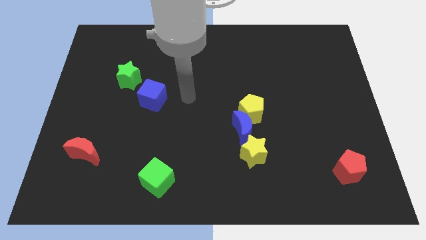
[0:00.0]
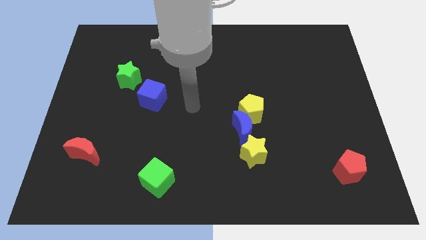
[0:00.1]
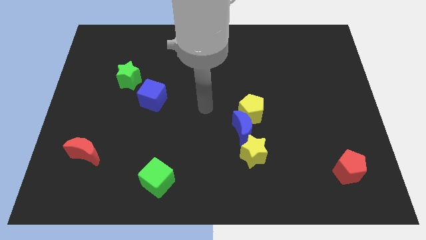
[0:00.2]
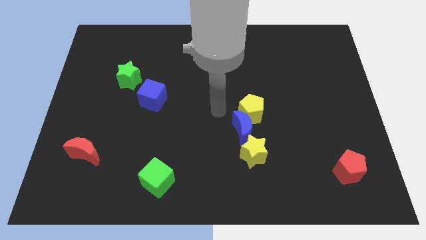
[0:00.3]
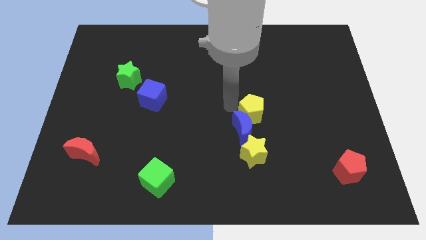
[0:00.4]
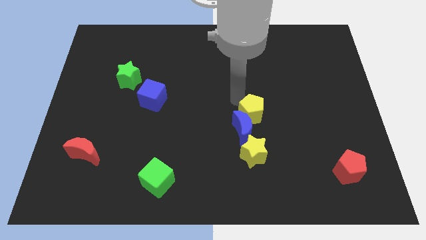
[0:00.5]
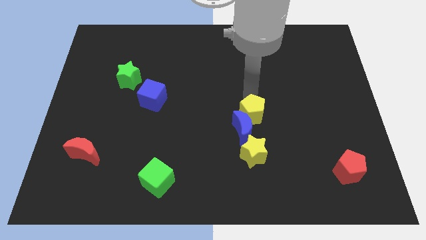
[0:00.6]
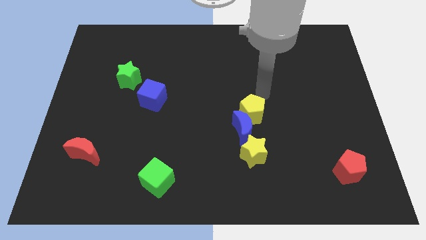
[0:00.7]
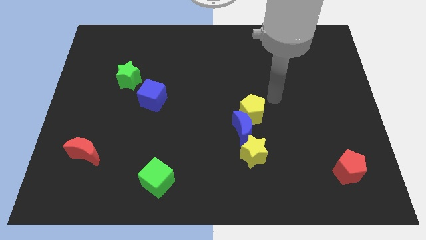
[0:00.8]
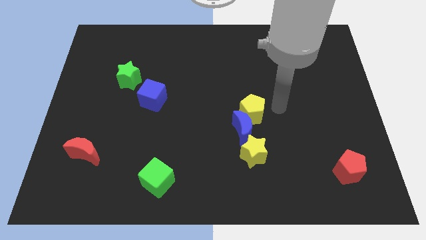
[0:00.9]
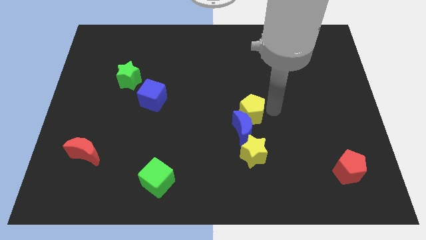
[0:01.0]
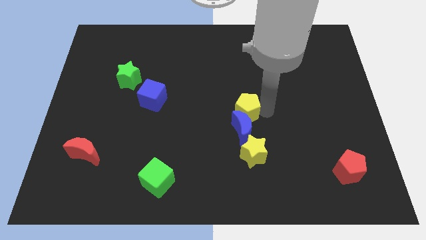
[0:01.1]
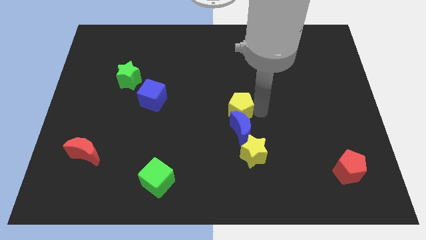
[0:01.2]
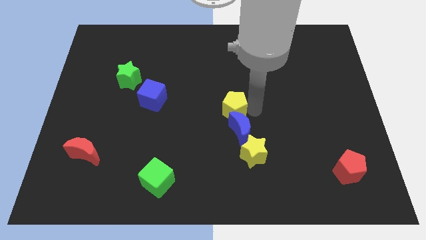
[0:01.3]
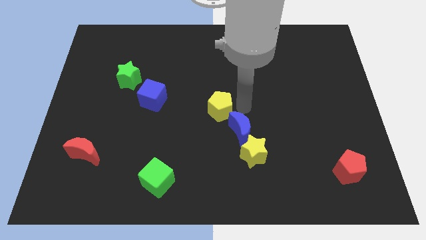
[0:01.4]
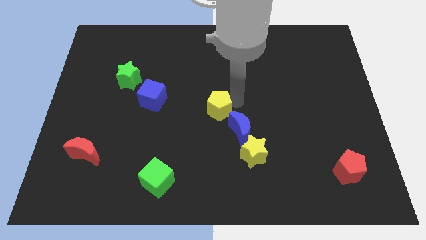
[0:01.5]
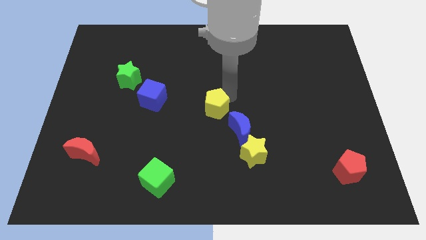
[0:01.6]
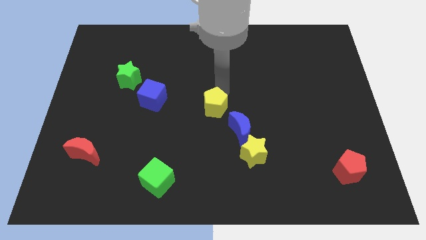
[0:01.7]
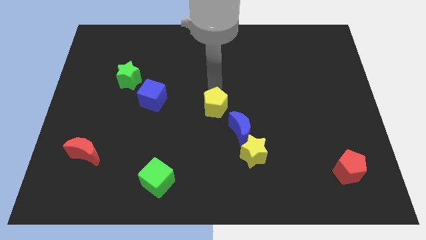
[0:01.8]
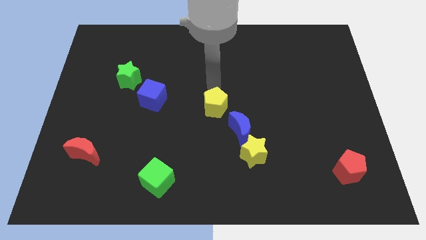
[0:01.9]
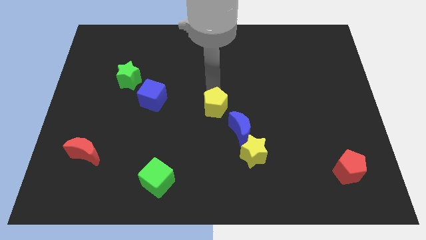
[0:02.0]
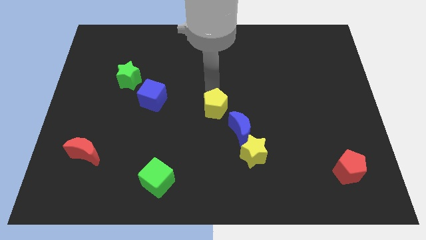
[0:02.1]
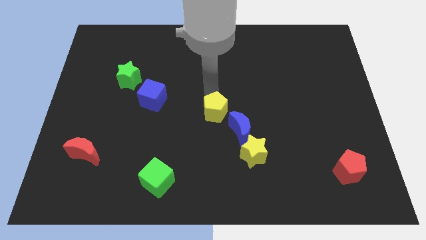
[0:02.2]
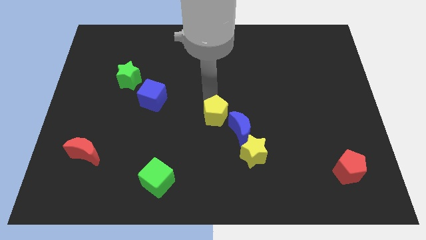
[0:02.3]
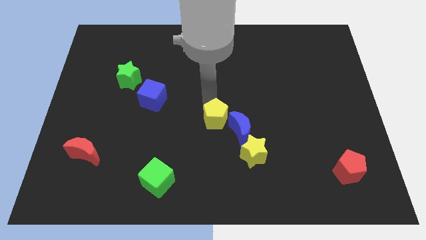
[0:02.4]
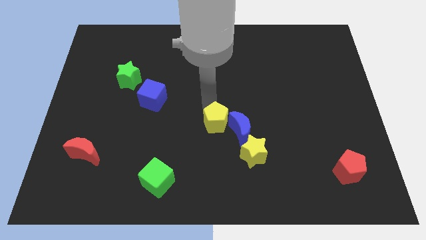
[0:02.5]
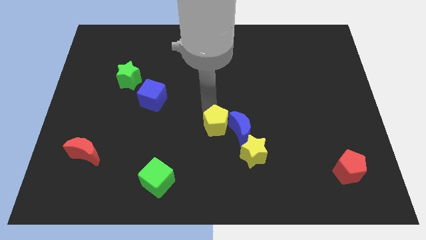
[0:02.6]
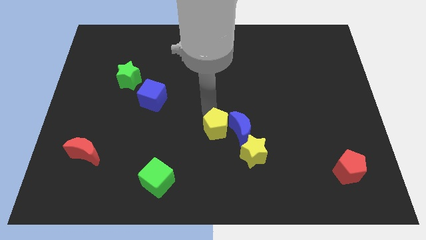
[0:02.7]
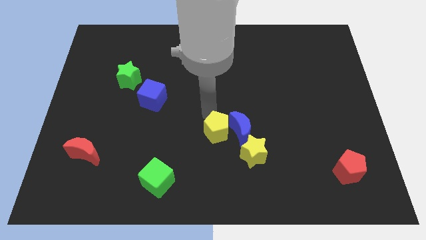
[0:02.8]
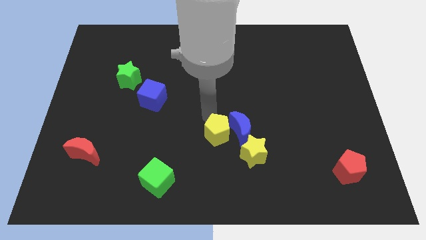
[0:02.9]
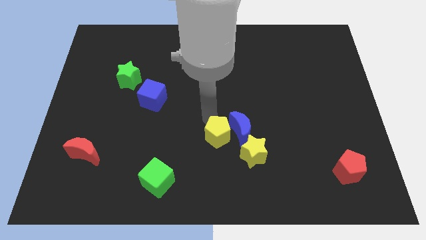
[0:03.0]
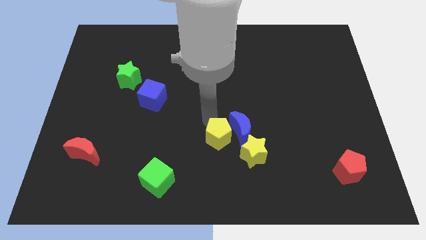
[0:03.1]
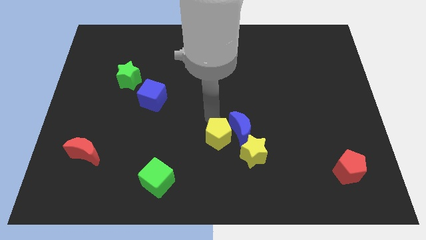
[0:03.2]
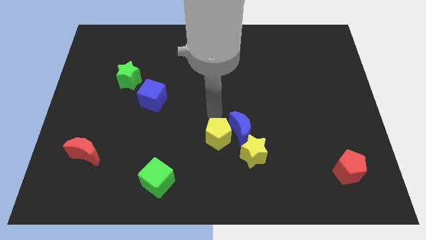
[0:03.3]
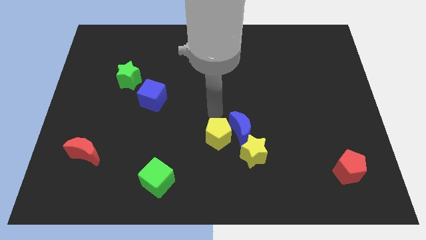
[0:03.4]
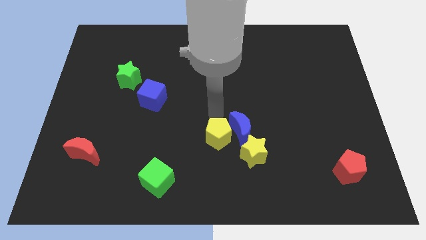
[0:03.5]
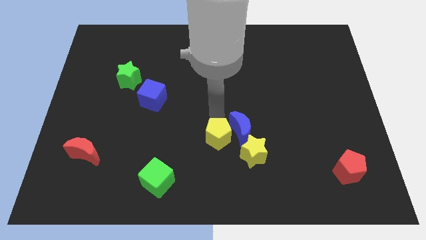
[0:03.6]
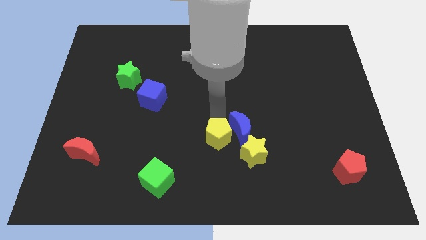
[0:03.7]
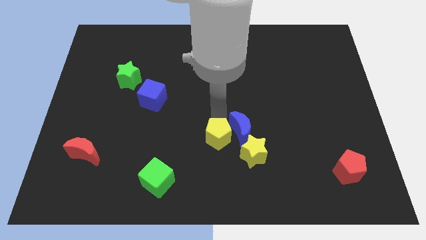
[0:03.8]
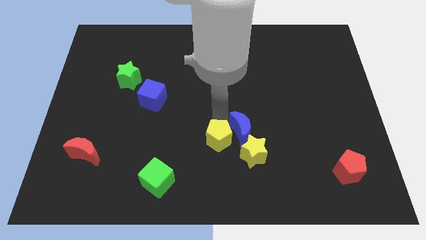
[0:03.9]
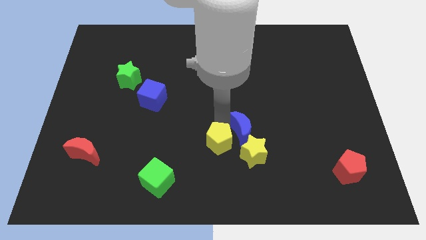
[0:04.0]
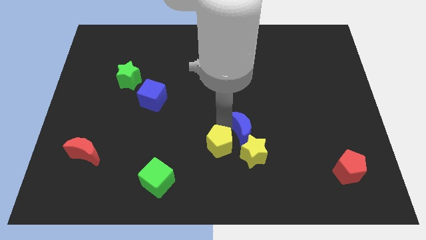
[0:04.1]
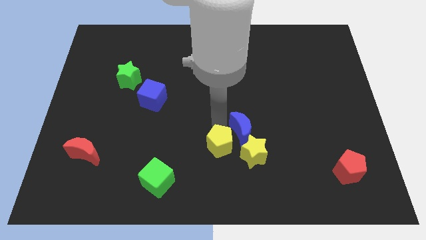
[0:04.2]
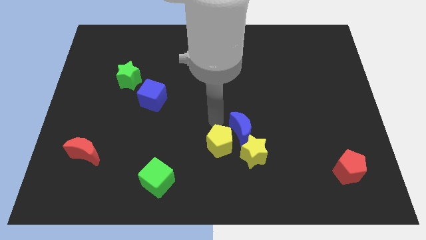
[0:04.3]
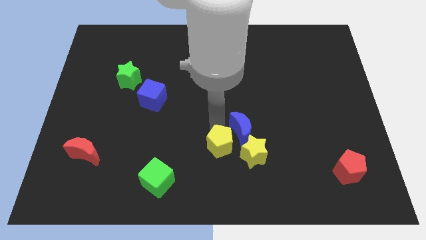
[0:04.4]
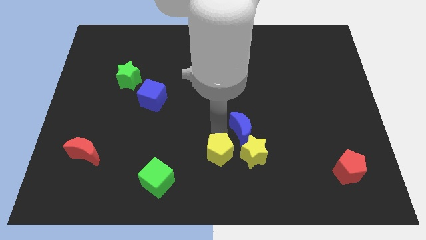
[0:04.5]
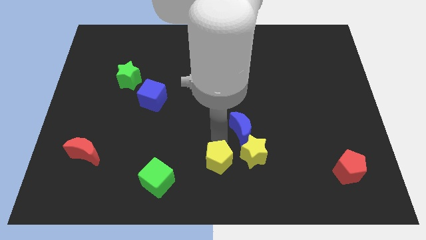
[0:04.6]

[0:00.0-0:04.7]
slide the yellow pentagon diagonally down and to the left of the yellow star

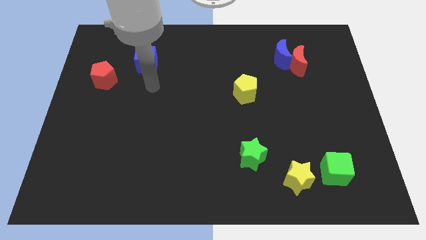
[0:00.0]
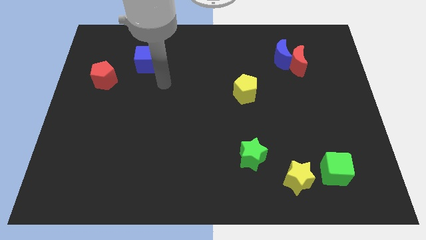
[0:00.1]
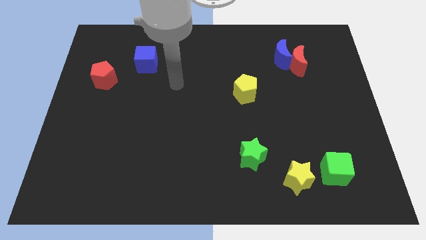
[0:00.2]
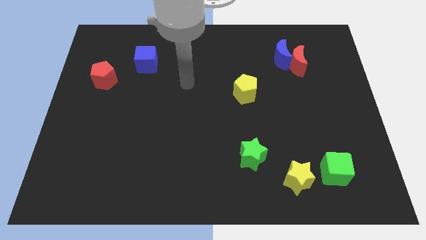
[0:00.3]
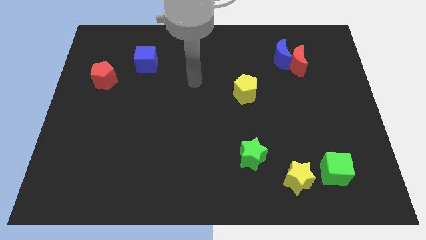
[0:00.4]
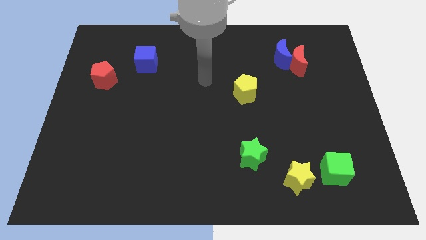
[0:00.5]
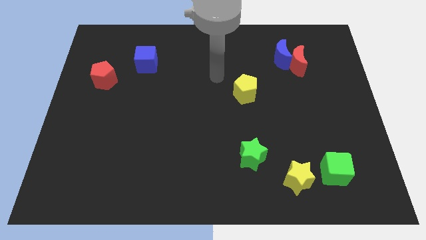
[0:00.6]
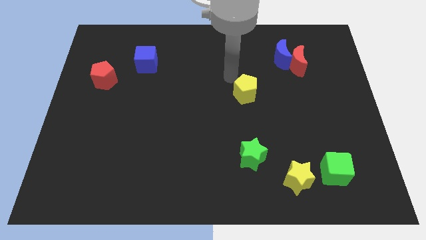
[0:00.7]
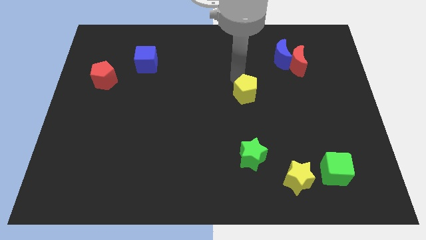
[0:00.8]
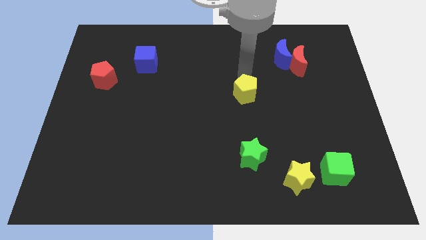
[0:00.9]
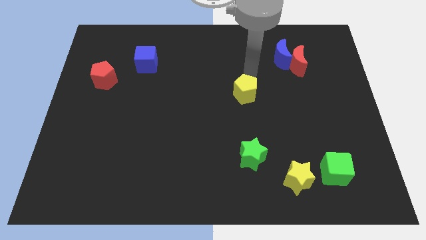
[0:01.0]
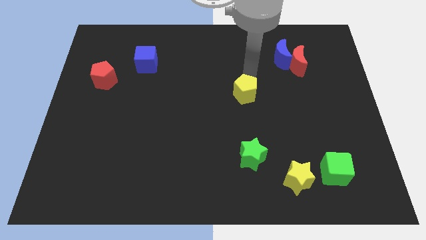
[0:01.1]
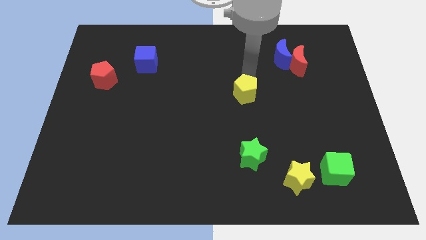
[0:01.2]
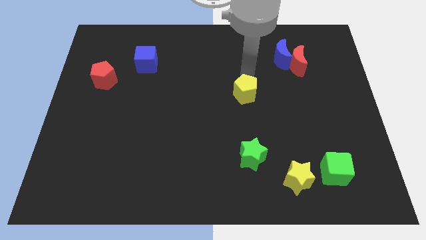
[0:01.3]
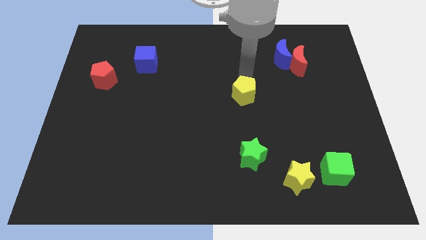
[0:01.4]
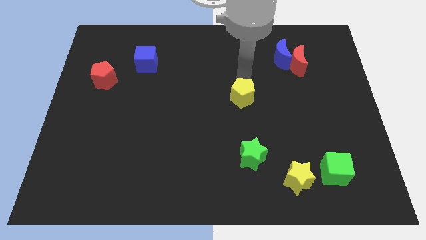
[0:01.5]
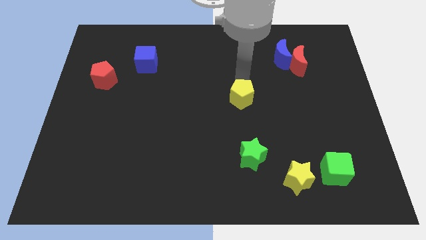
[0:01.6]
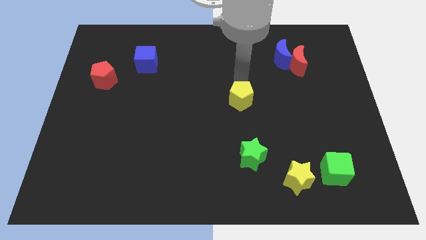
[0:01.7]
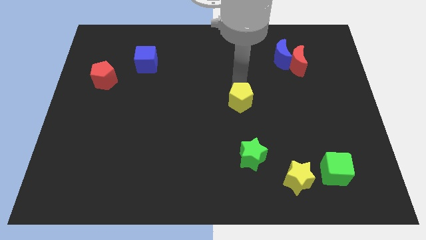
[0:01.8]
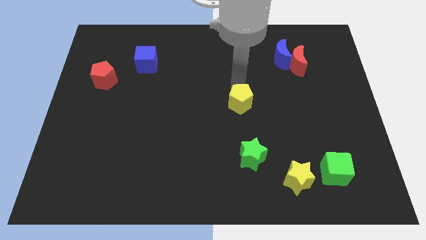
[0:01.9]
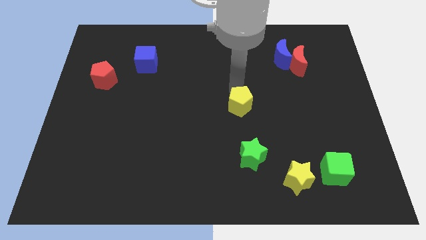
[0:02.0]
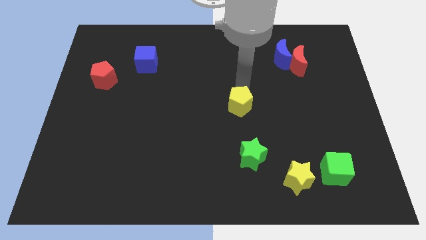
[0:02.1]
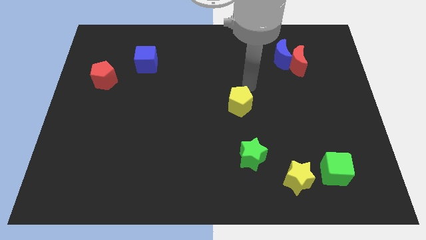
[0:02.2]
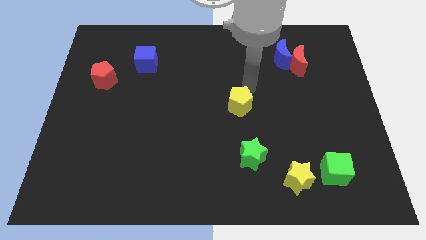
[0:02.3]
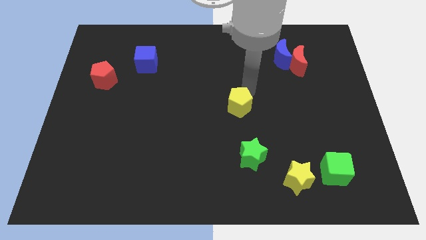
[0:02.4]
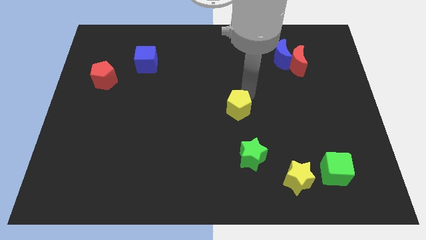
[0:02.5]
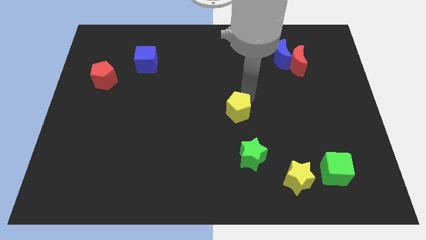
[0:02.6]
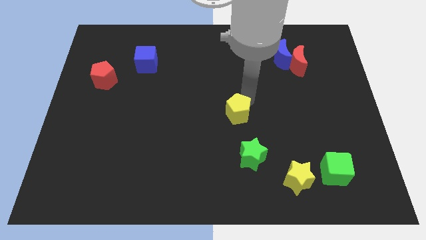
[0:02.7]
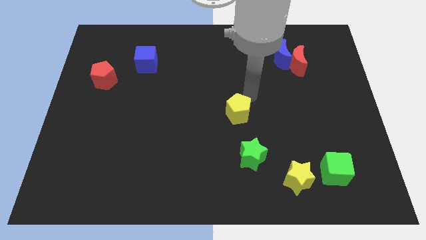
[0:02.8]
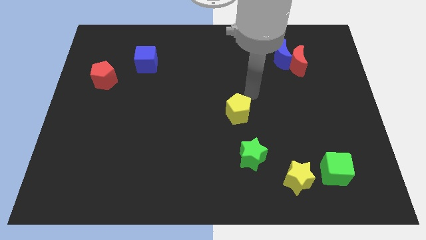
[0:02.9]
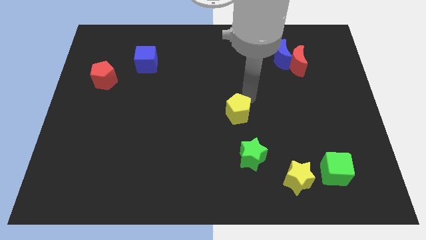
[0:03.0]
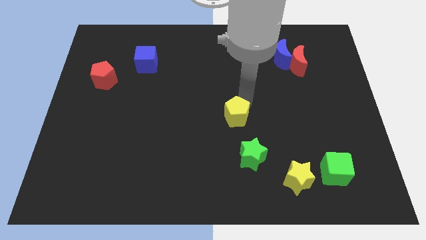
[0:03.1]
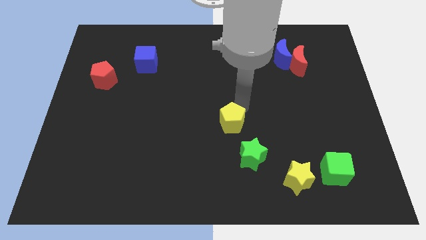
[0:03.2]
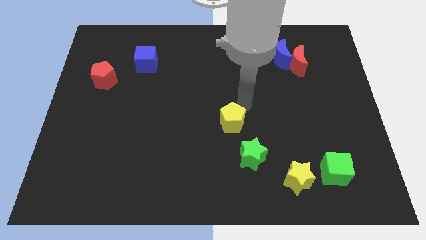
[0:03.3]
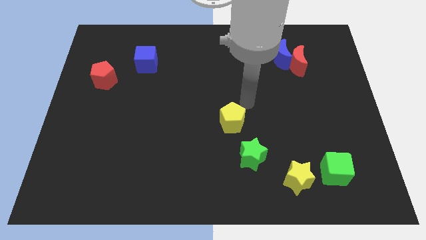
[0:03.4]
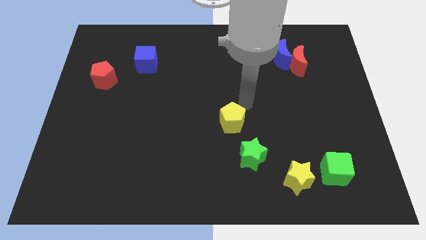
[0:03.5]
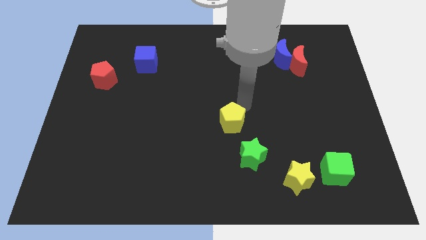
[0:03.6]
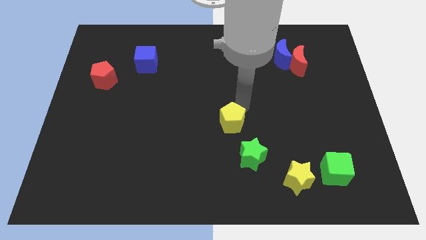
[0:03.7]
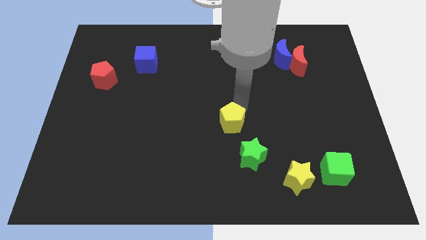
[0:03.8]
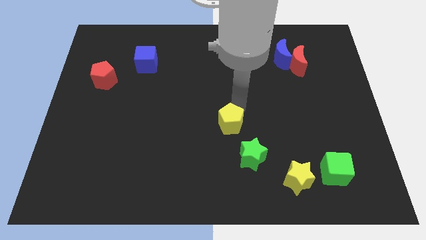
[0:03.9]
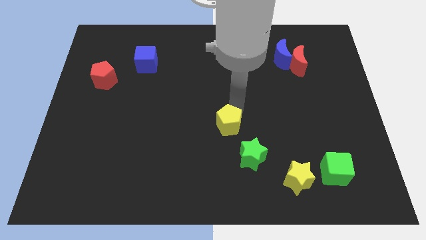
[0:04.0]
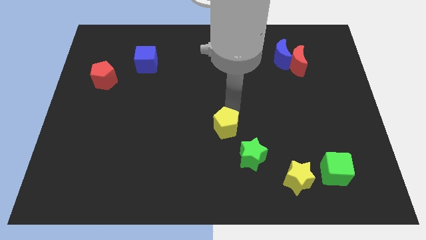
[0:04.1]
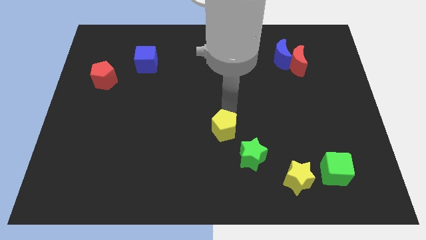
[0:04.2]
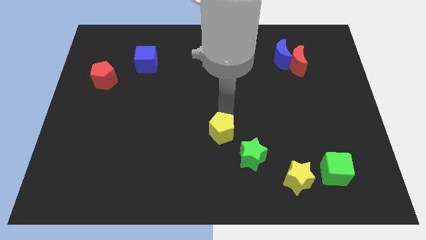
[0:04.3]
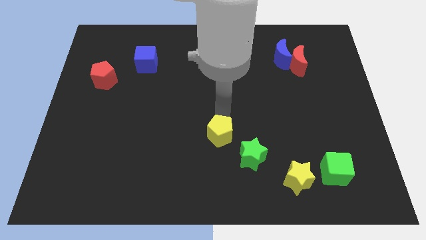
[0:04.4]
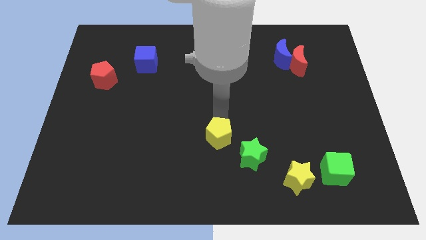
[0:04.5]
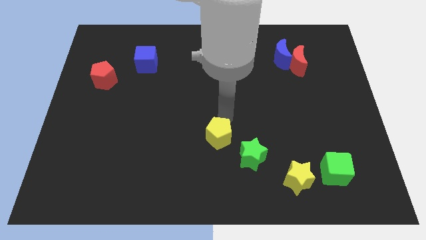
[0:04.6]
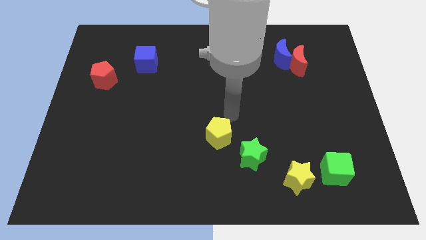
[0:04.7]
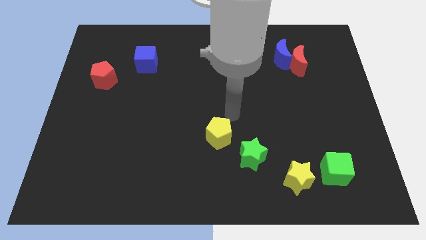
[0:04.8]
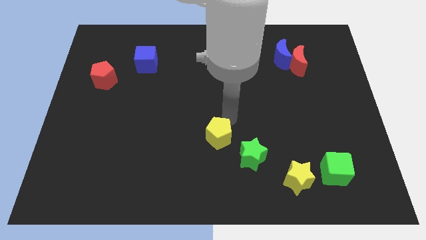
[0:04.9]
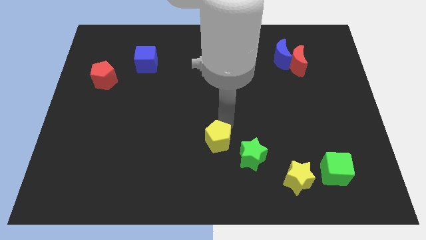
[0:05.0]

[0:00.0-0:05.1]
push the yellow pentagon just left of the green star
